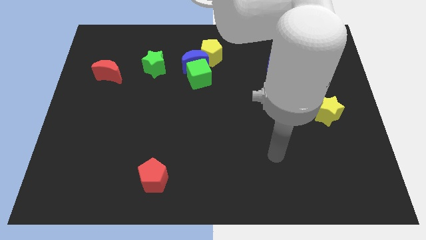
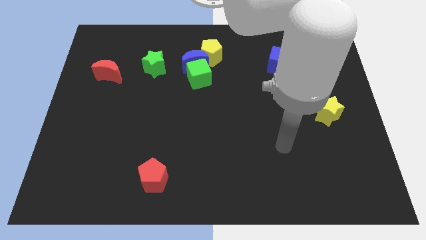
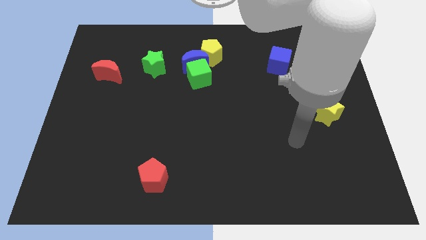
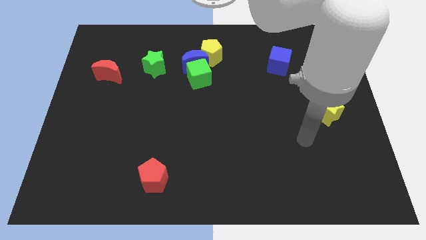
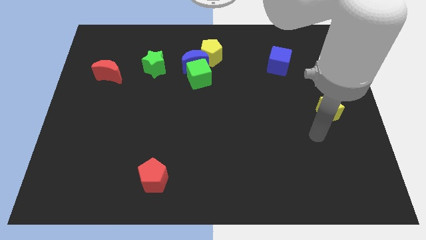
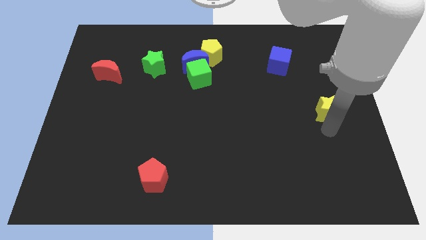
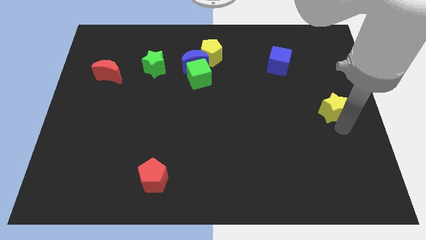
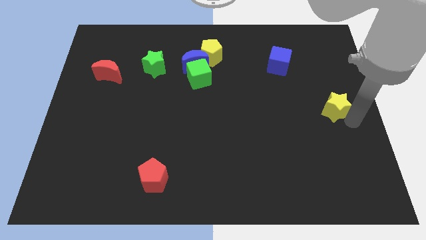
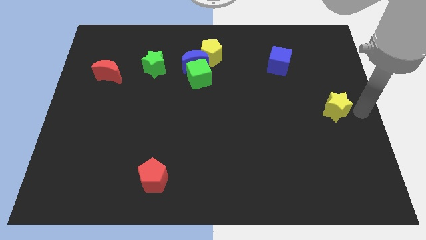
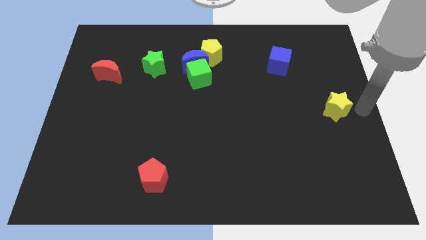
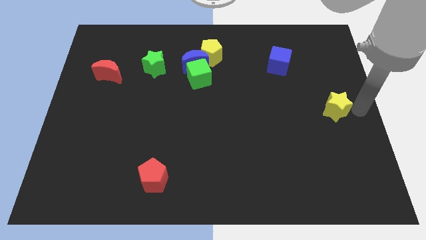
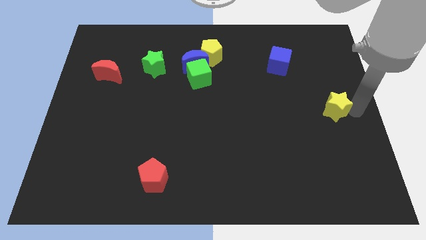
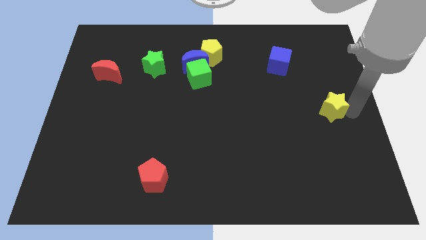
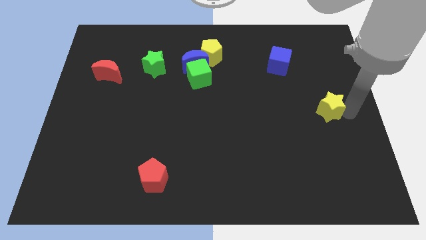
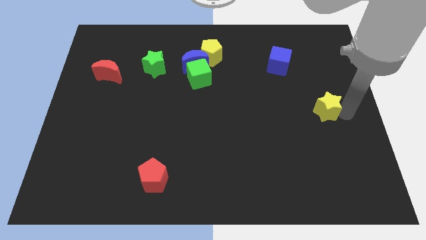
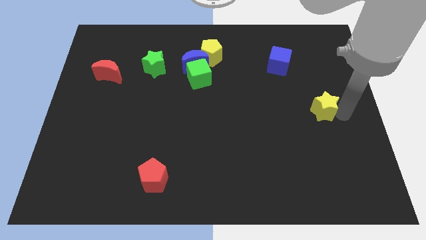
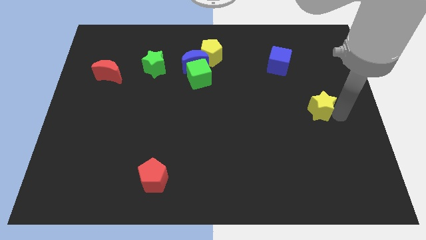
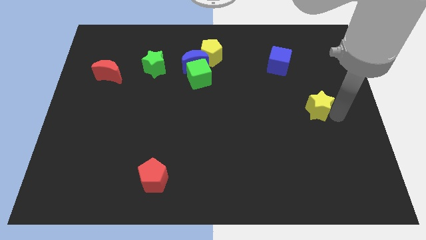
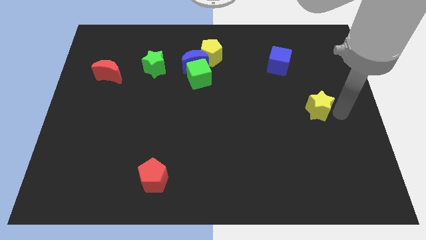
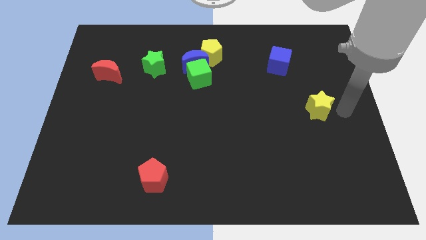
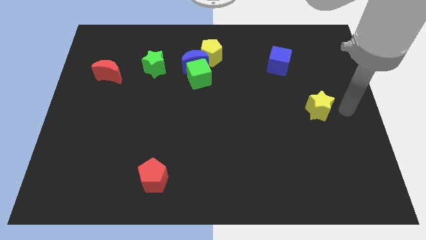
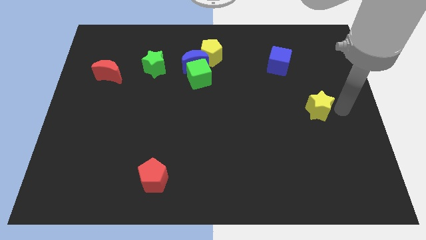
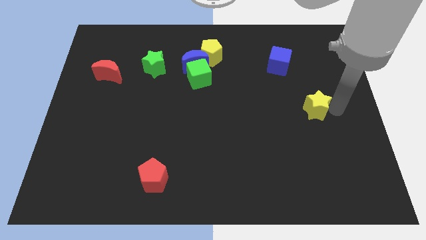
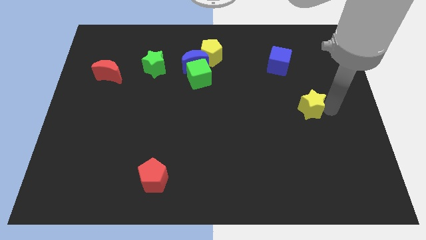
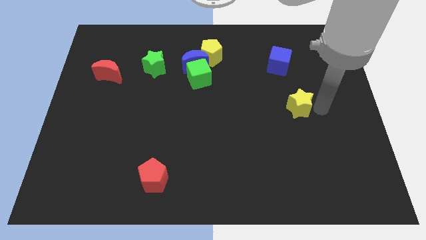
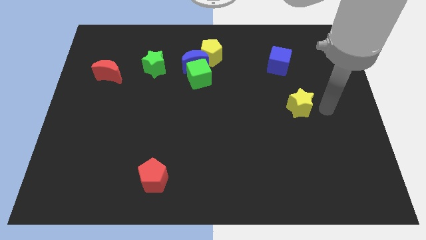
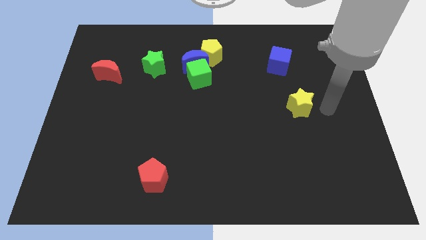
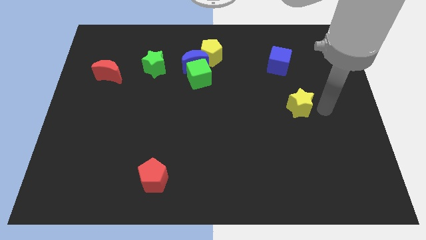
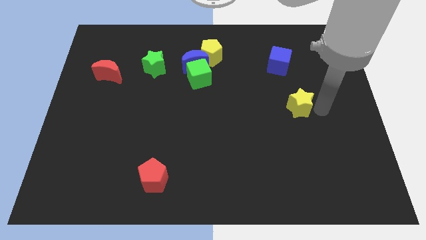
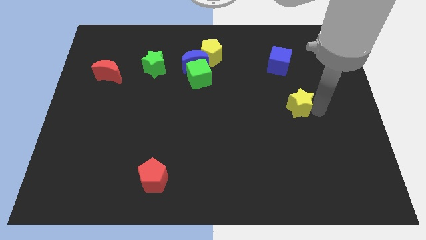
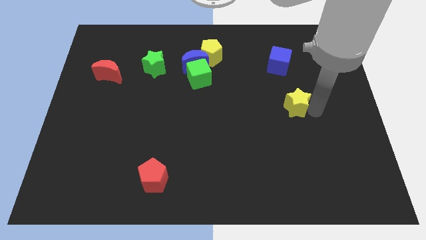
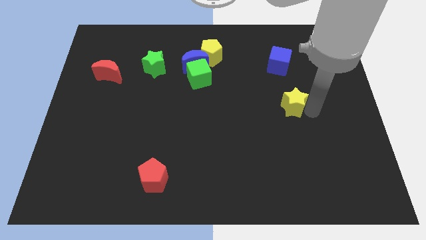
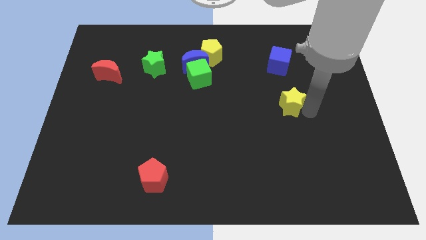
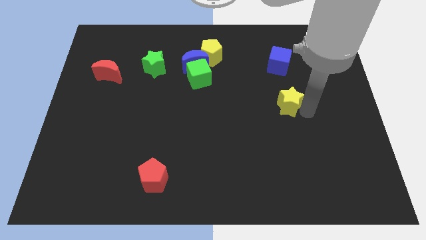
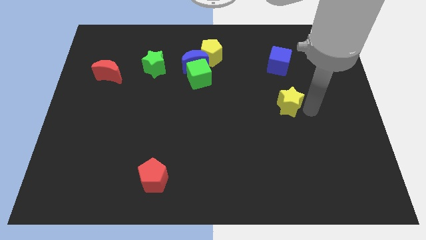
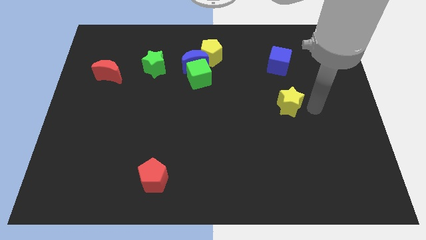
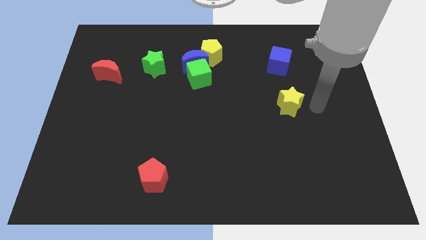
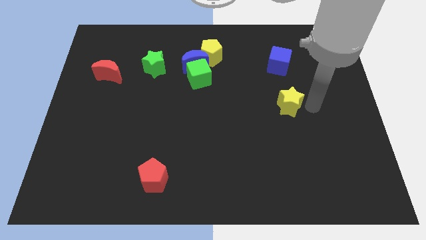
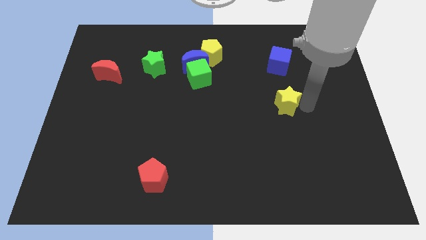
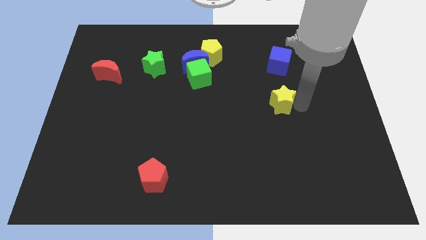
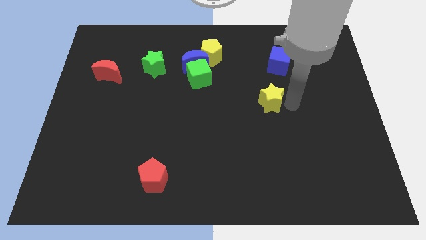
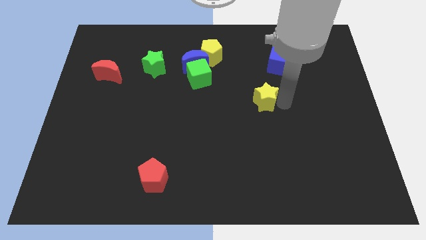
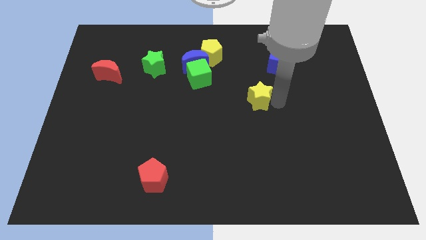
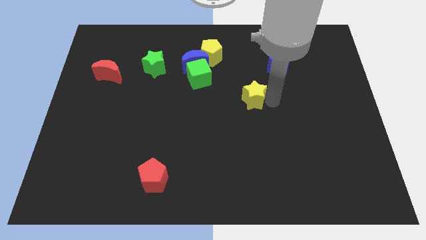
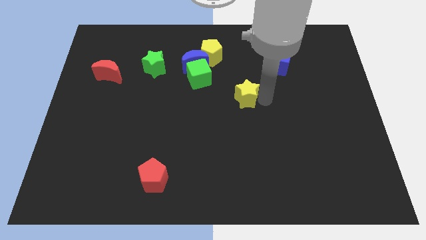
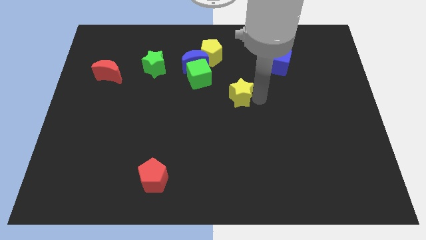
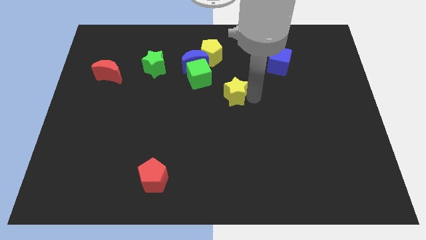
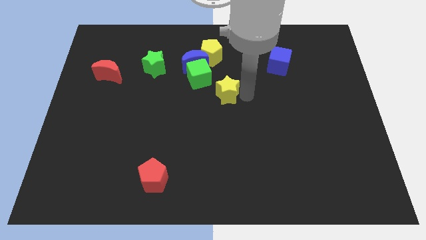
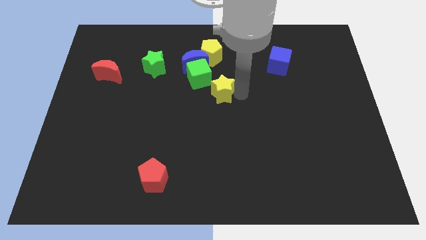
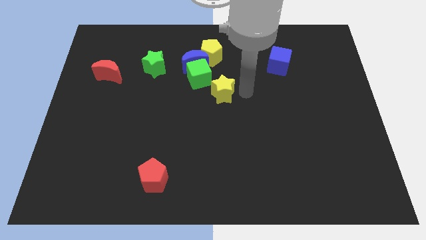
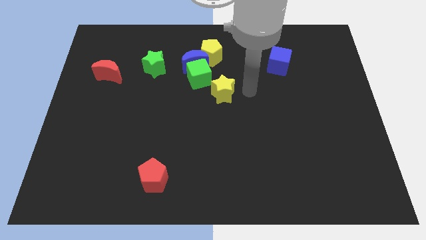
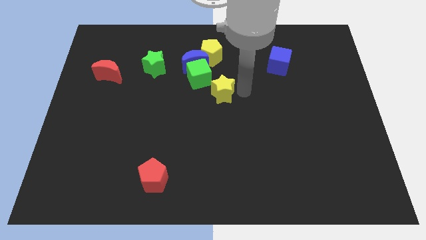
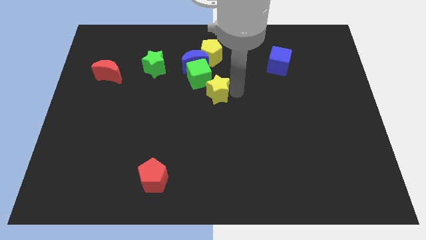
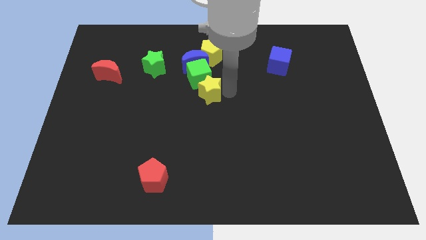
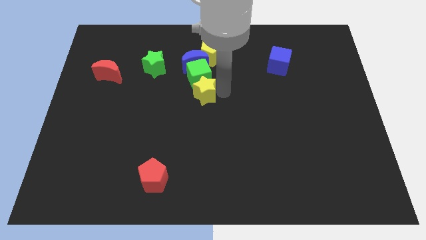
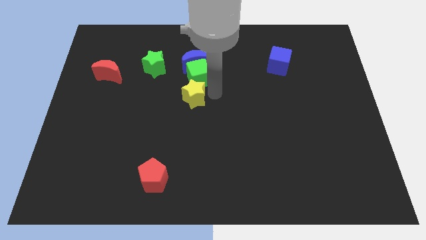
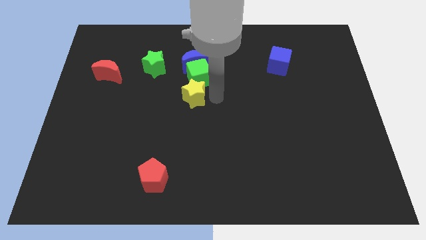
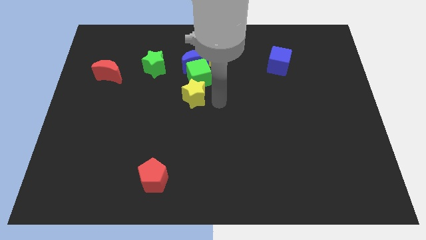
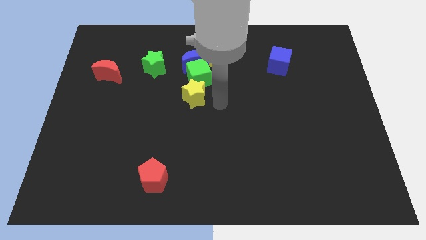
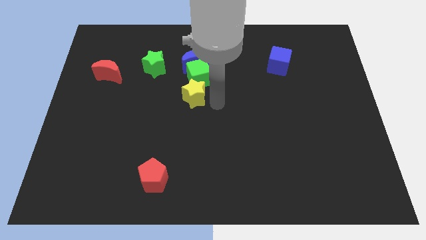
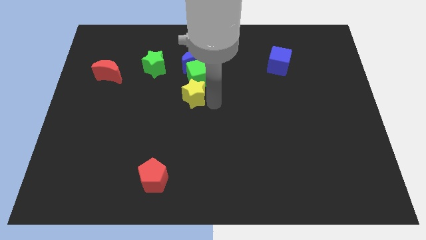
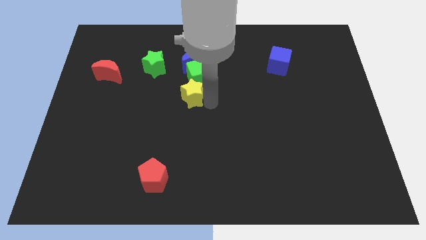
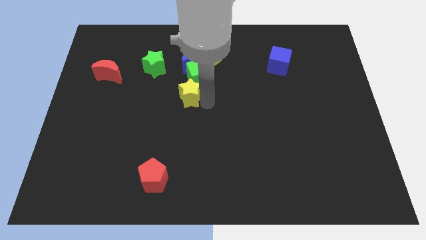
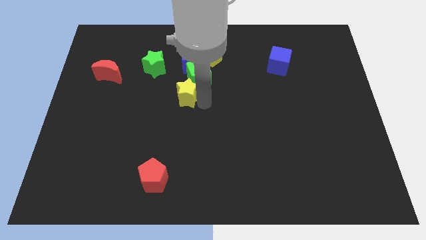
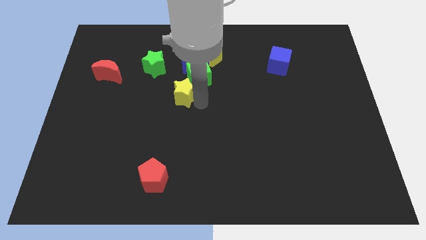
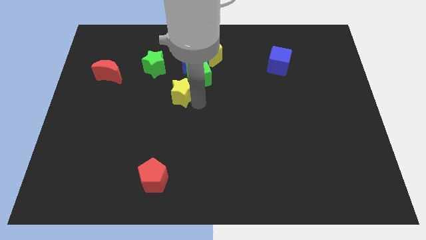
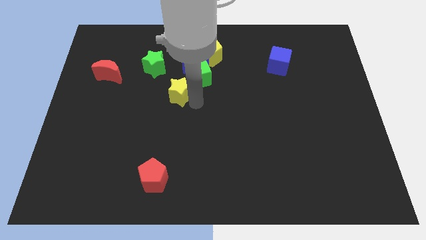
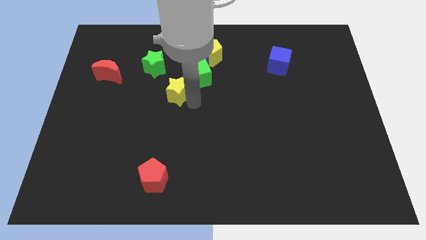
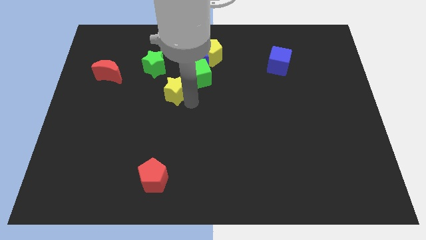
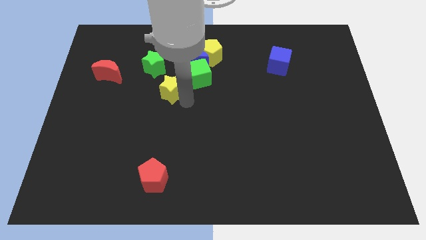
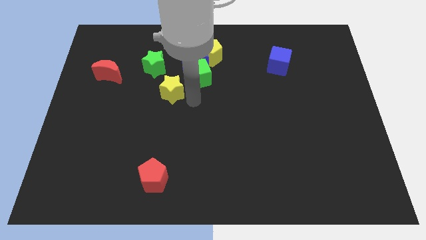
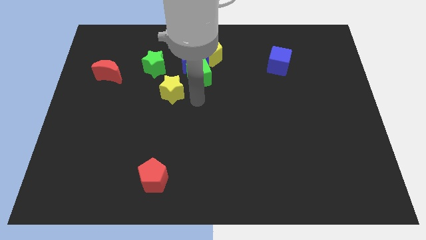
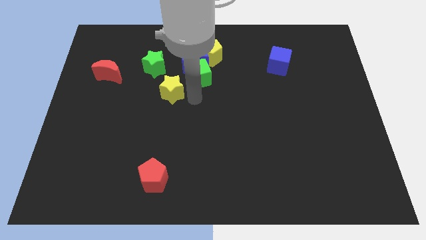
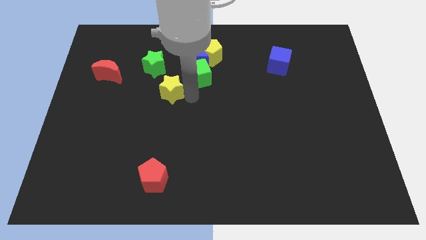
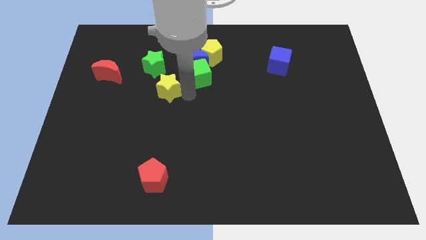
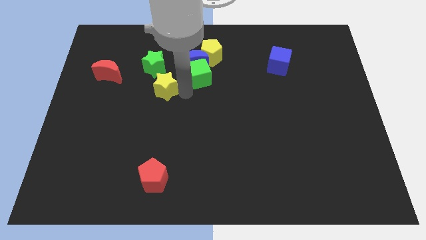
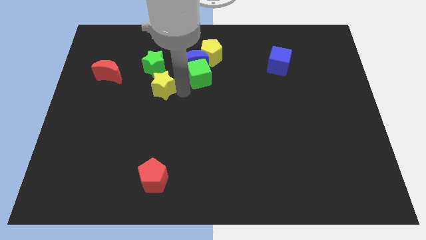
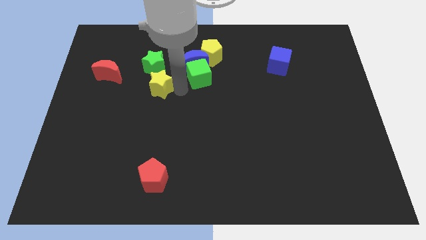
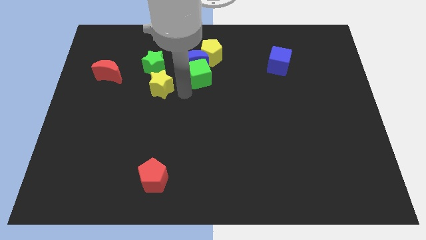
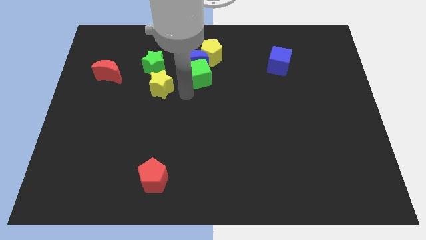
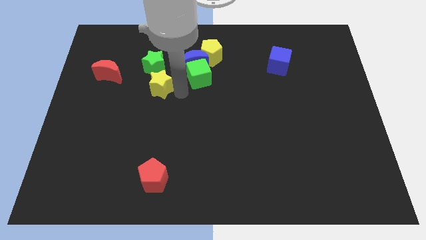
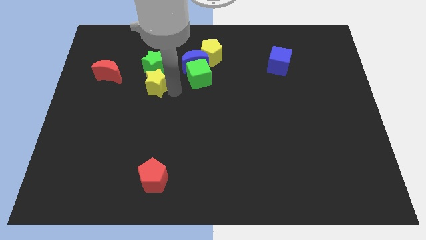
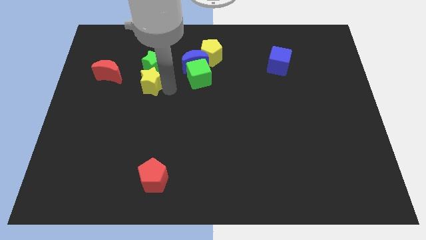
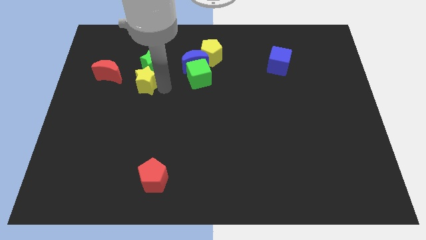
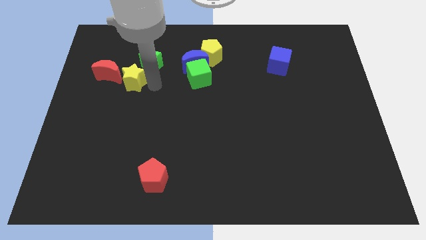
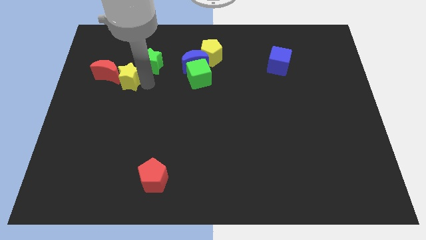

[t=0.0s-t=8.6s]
push the yellow star close to the red moon
